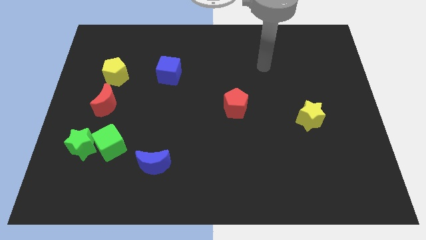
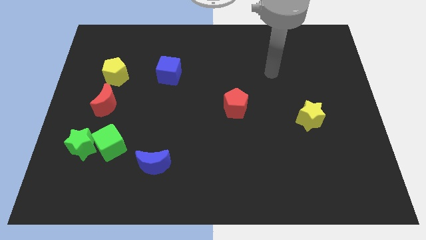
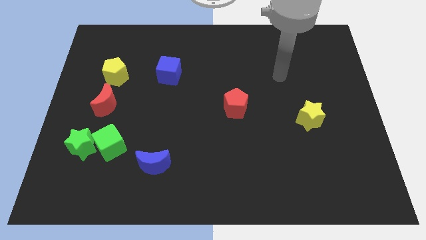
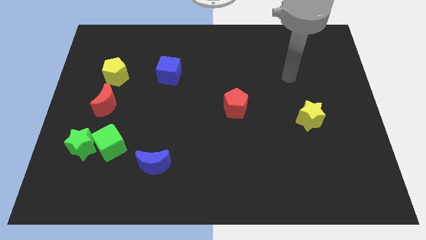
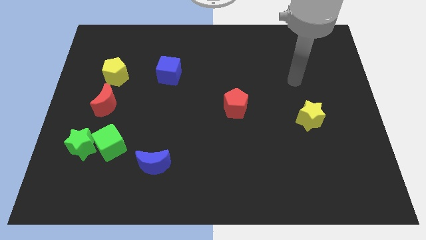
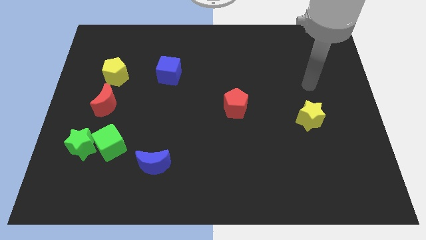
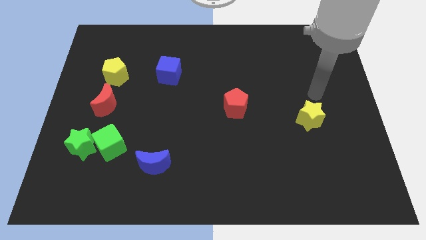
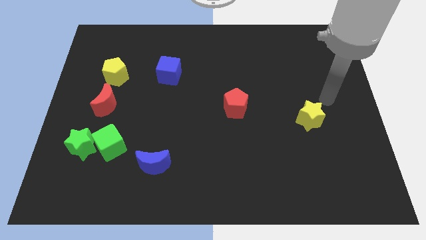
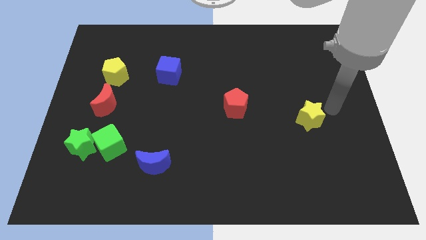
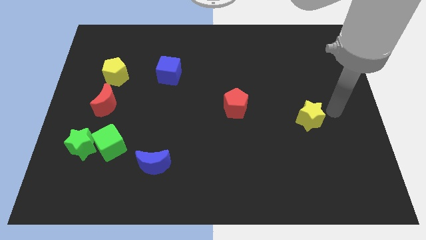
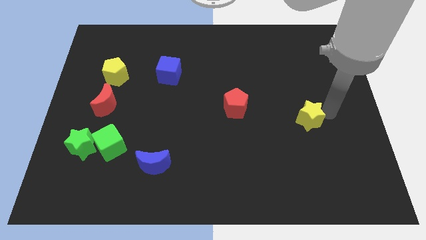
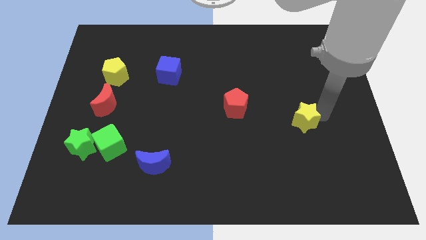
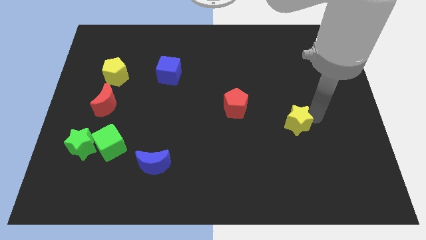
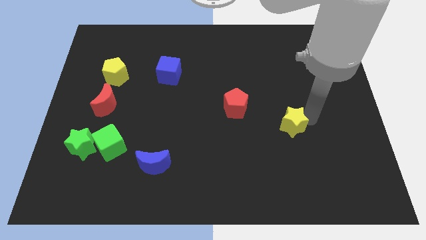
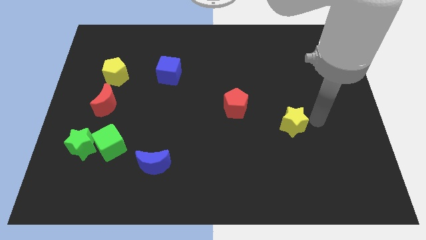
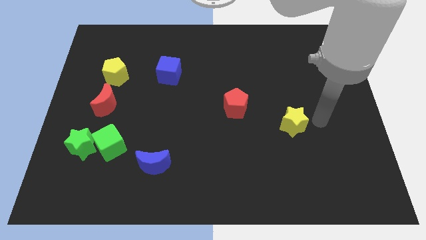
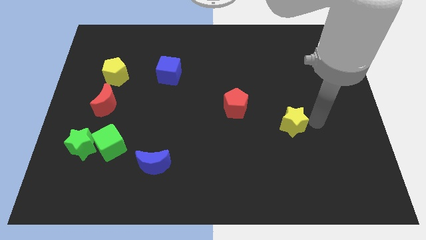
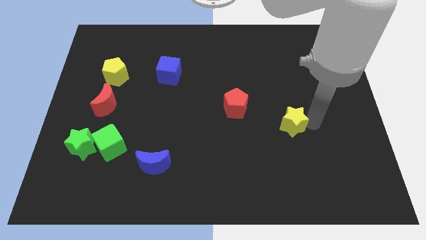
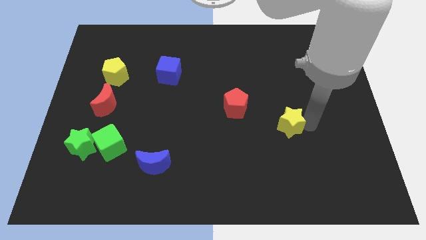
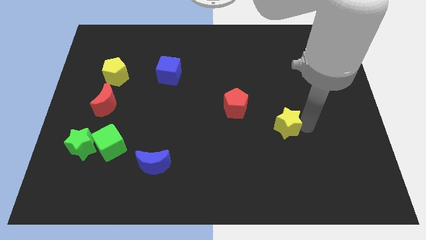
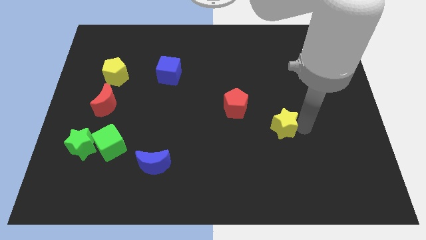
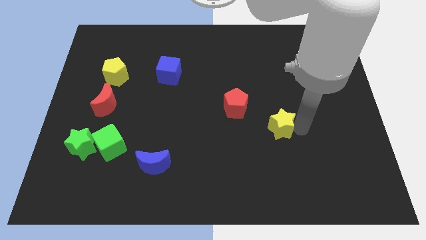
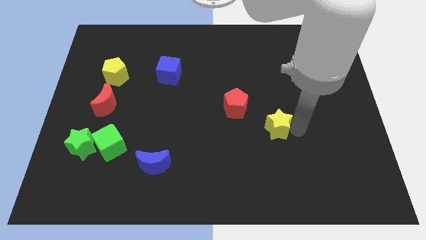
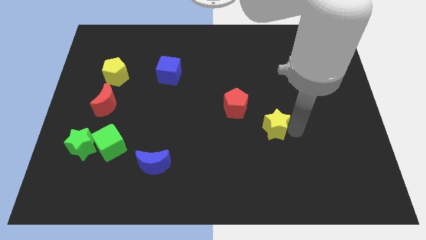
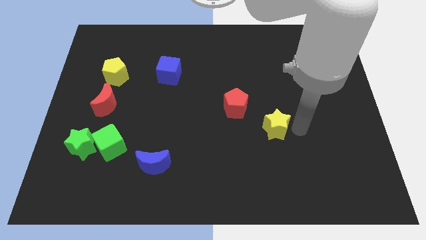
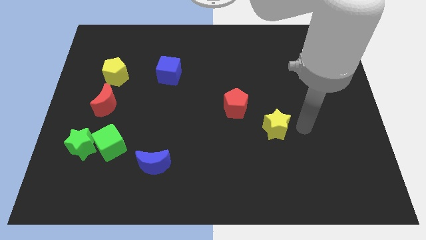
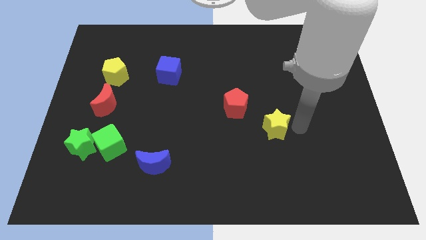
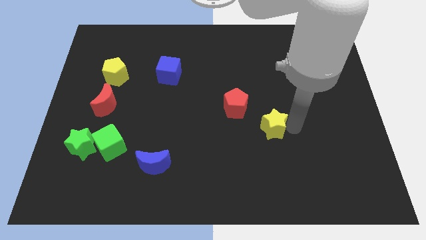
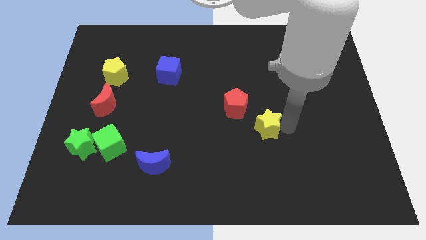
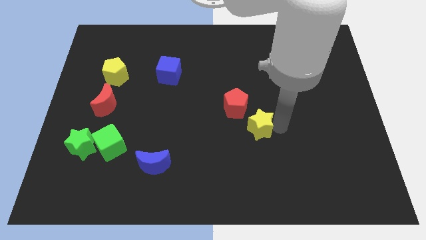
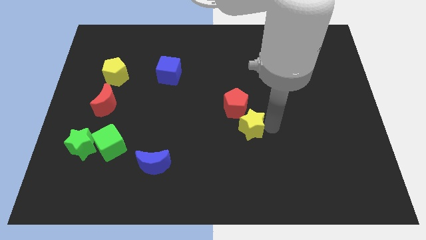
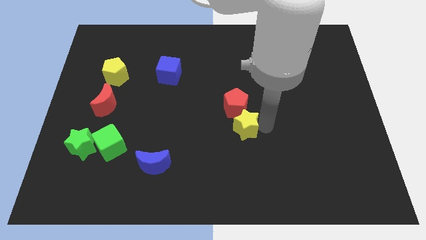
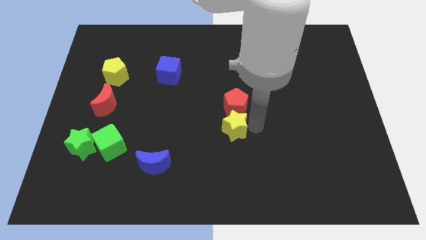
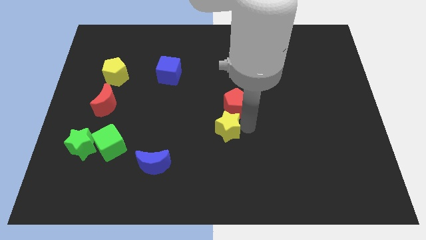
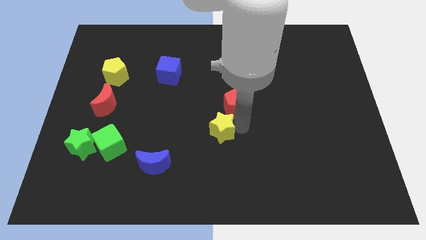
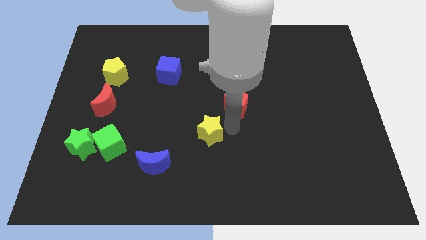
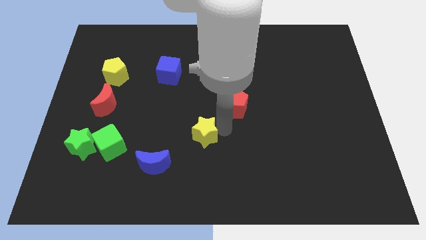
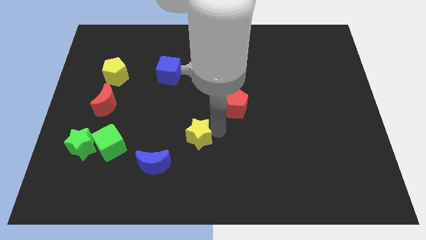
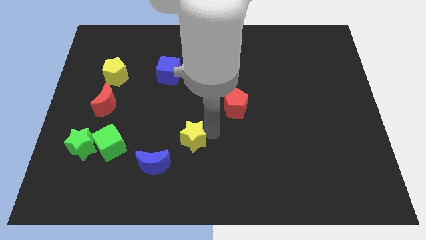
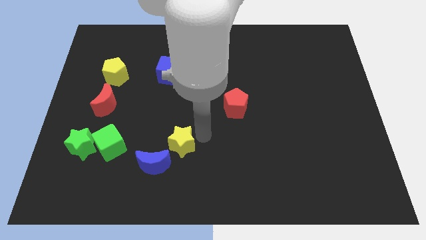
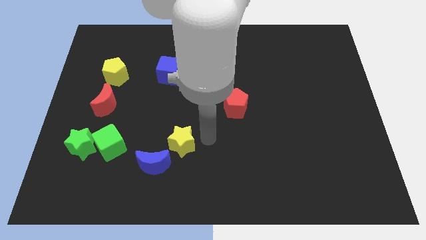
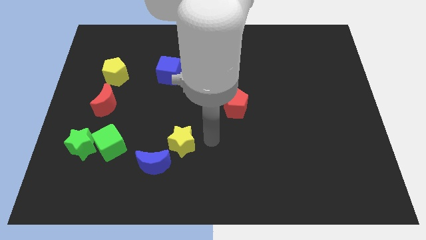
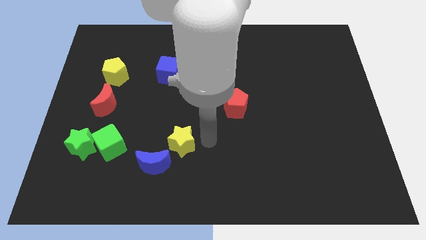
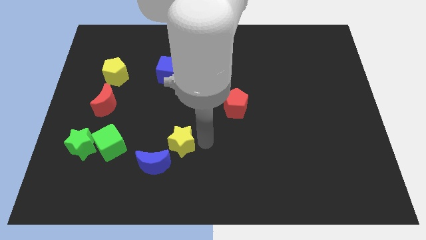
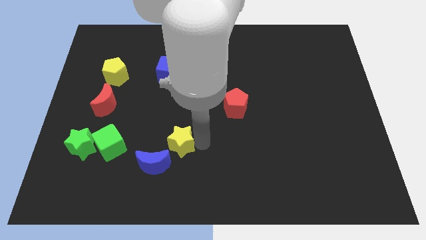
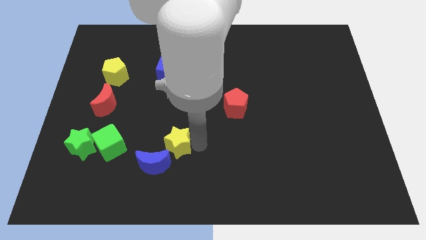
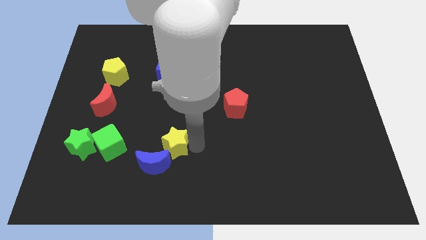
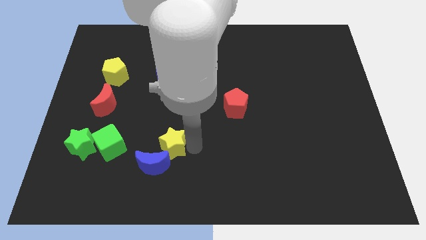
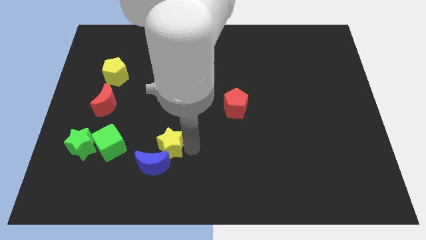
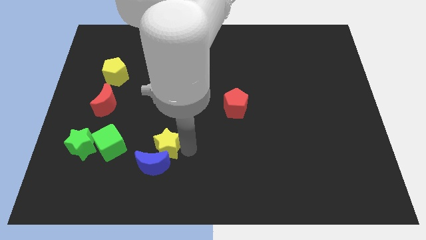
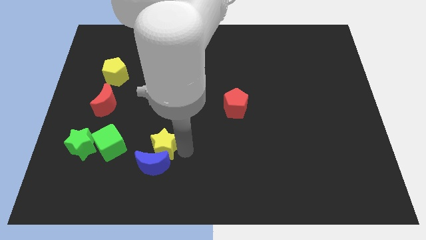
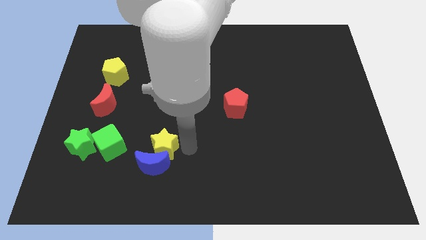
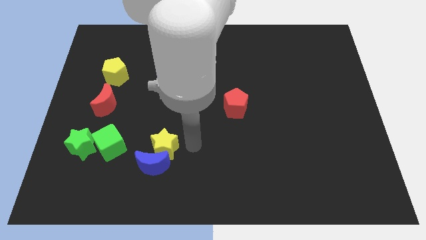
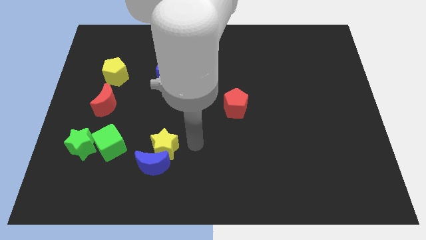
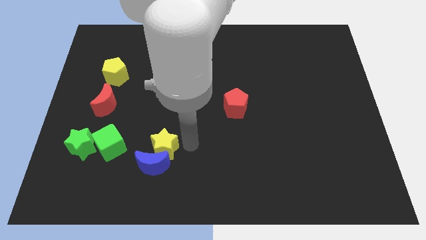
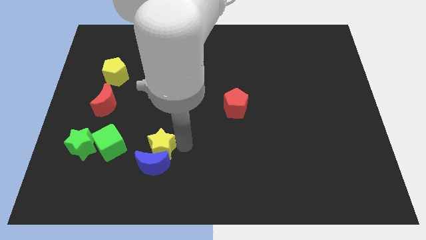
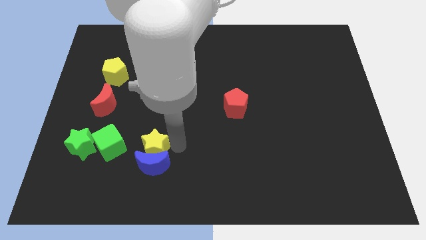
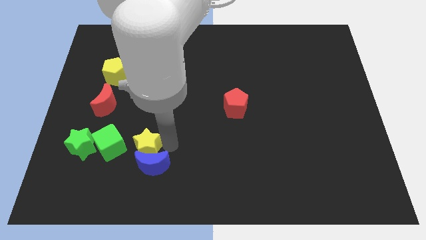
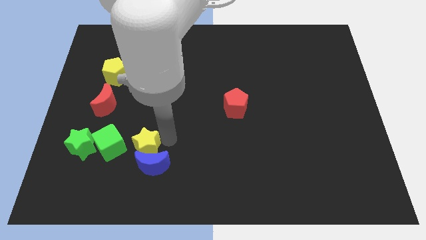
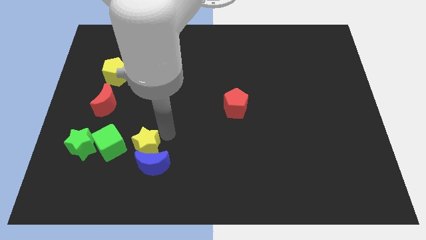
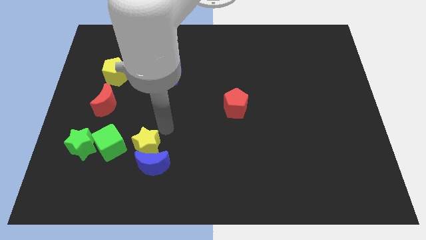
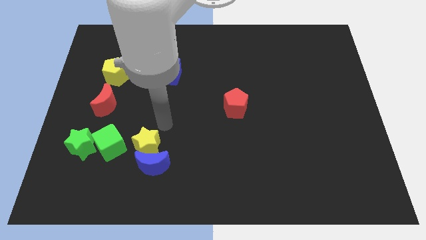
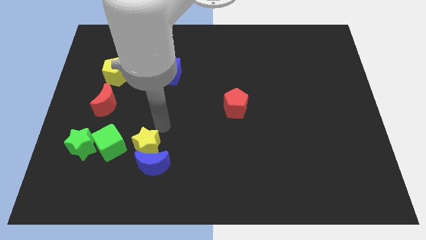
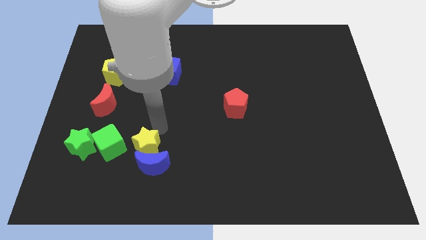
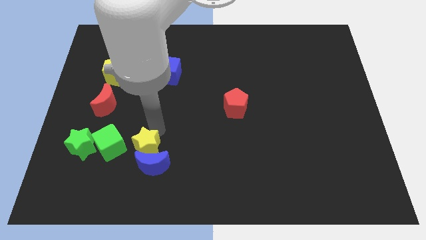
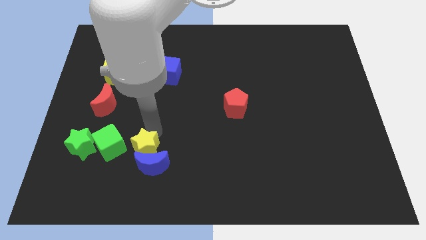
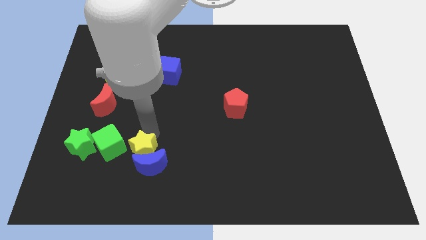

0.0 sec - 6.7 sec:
push the yellow star to the bottom right of the green cube
